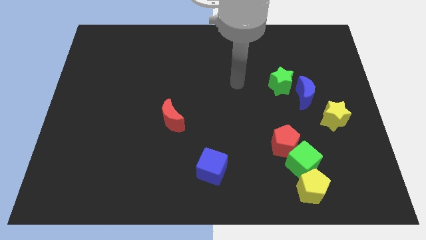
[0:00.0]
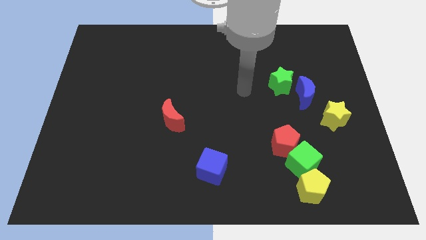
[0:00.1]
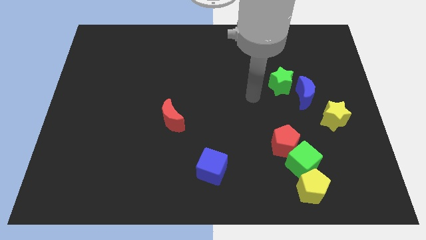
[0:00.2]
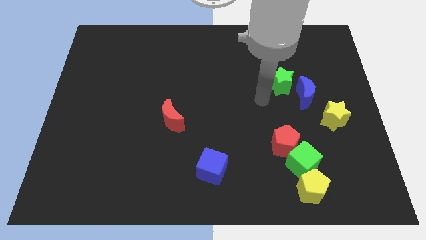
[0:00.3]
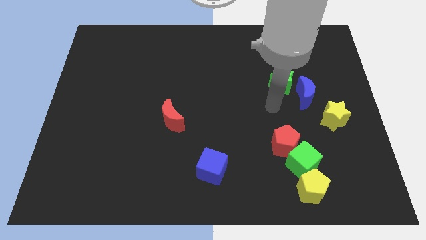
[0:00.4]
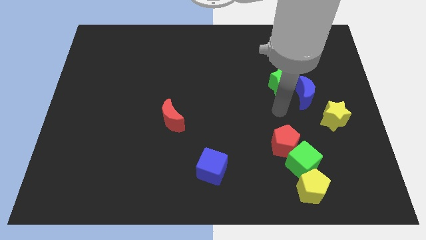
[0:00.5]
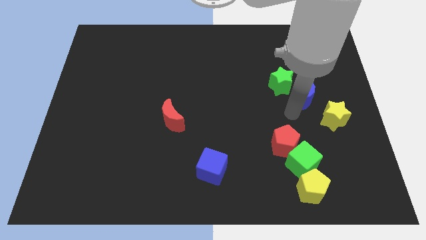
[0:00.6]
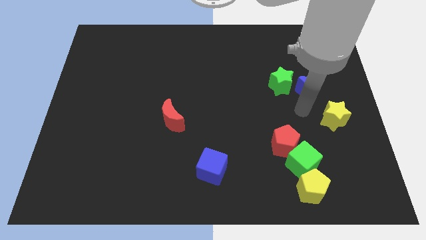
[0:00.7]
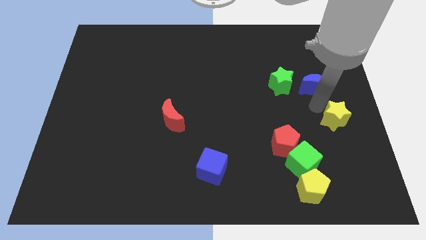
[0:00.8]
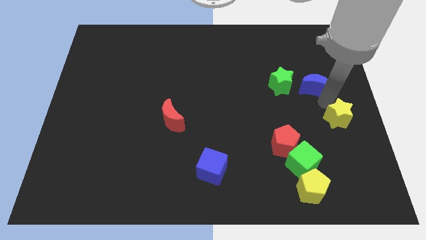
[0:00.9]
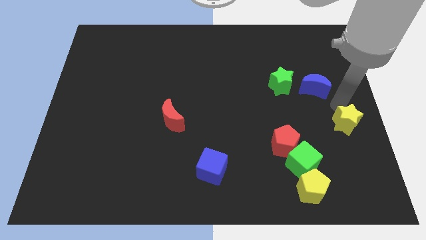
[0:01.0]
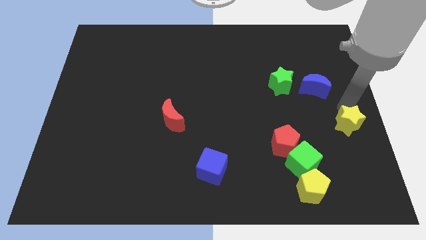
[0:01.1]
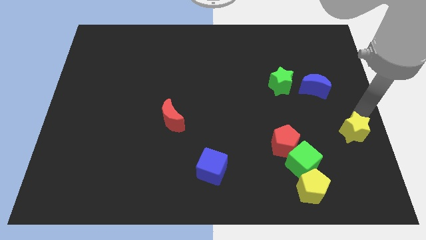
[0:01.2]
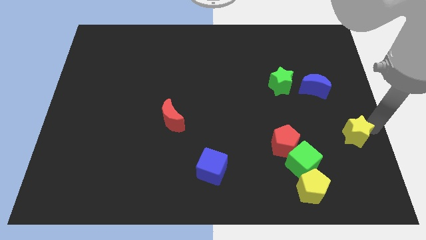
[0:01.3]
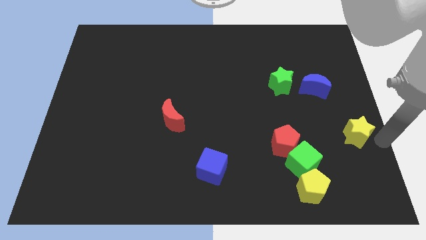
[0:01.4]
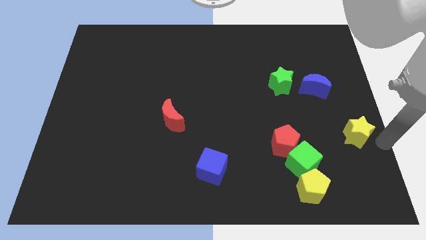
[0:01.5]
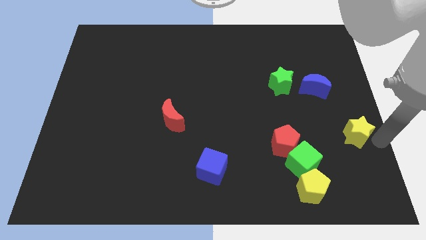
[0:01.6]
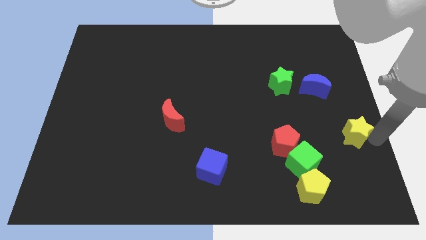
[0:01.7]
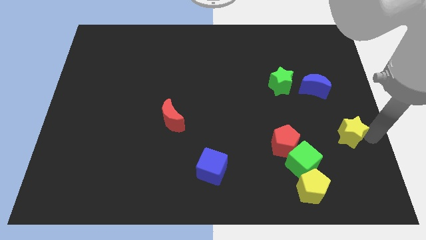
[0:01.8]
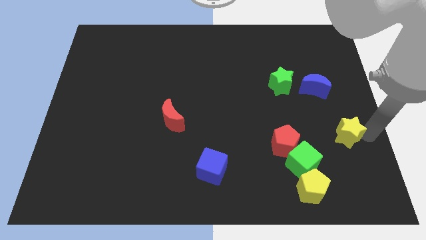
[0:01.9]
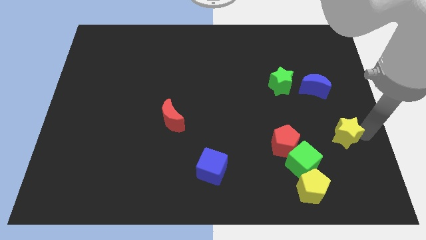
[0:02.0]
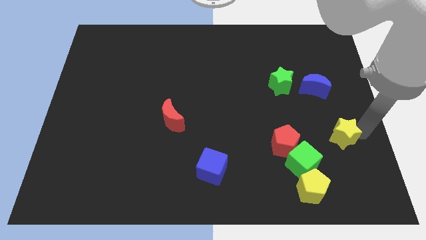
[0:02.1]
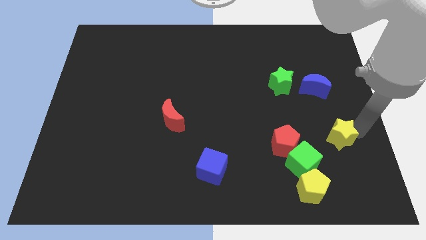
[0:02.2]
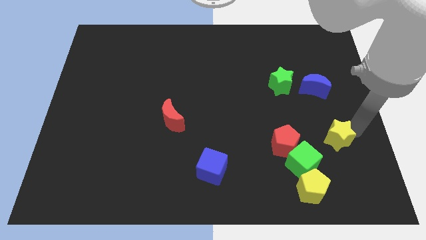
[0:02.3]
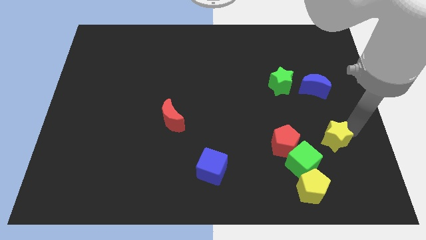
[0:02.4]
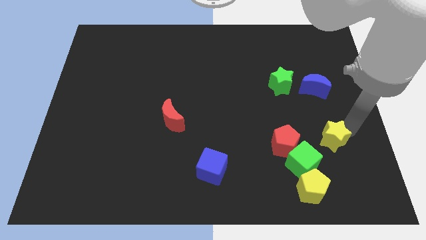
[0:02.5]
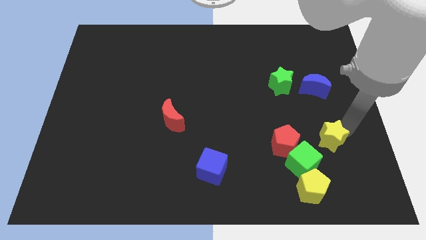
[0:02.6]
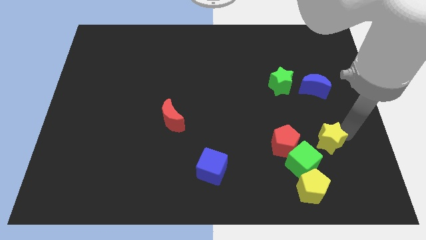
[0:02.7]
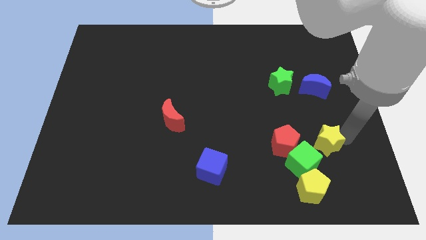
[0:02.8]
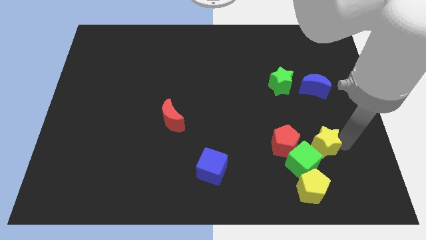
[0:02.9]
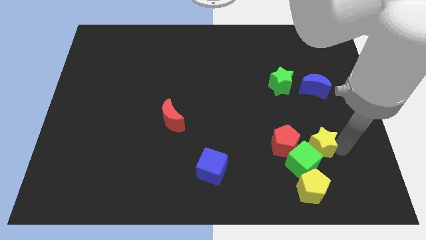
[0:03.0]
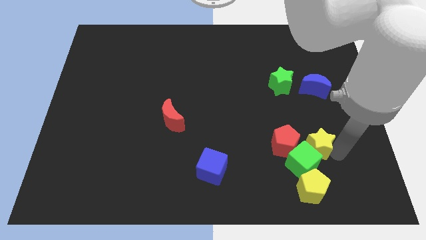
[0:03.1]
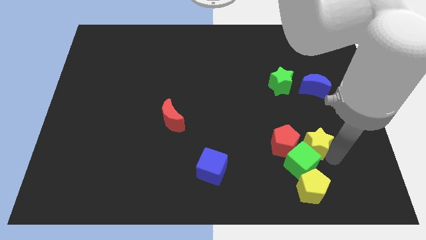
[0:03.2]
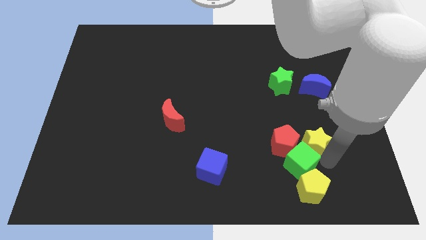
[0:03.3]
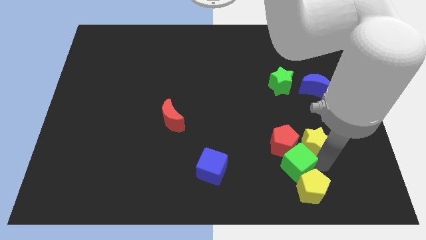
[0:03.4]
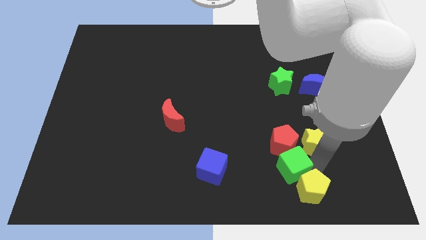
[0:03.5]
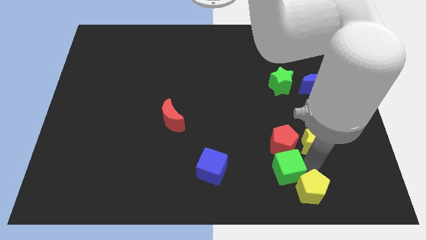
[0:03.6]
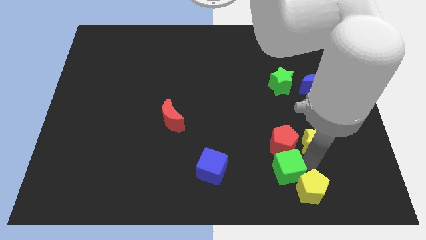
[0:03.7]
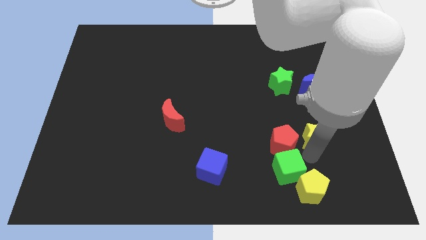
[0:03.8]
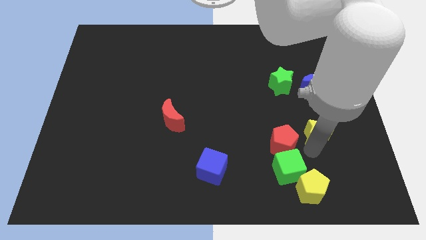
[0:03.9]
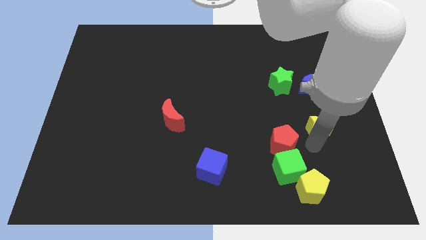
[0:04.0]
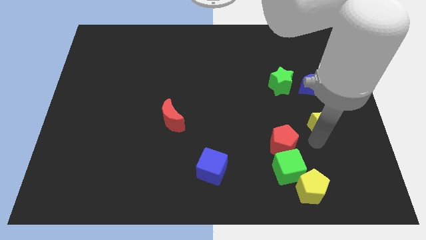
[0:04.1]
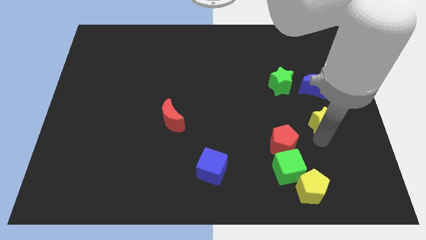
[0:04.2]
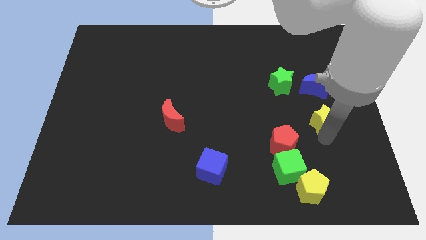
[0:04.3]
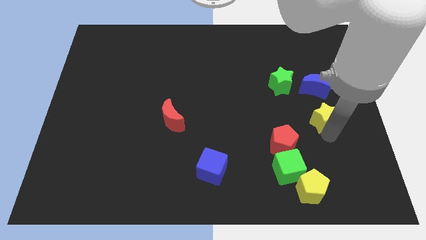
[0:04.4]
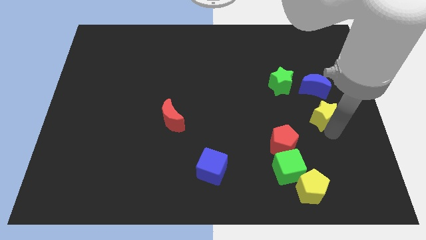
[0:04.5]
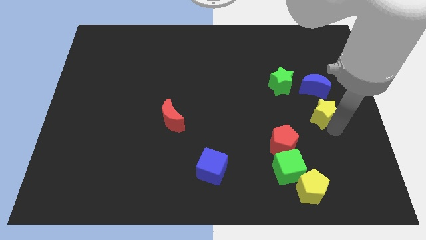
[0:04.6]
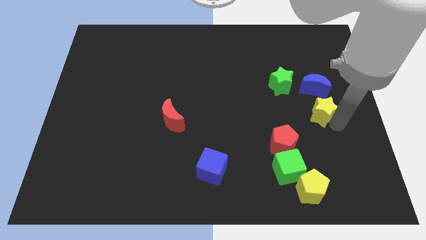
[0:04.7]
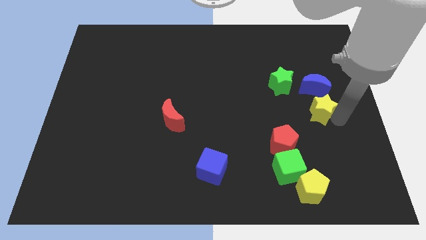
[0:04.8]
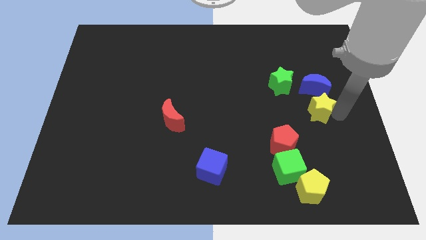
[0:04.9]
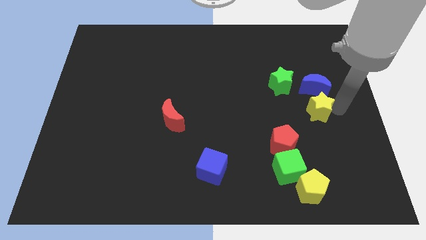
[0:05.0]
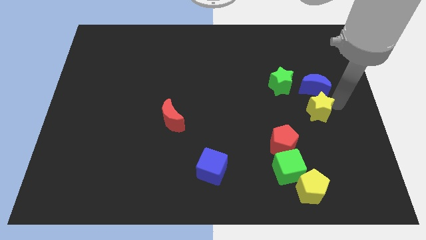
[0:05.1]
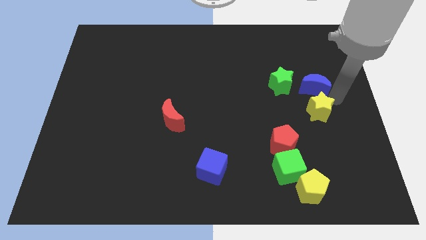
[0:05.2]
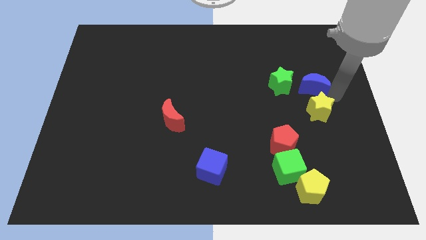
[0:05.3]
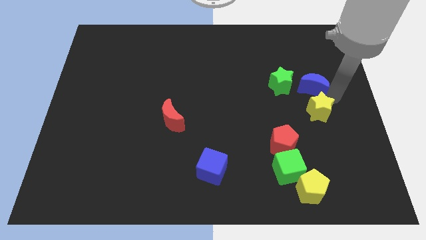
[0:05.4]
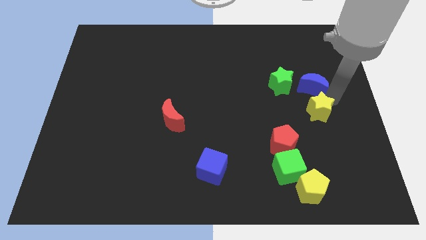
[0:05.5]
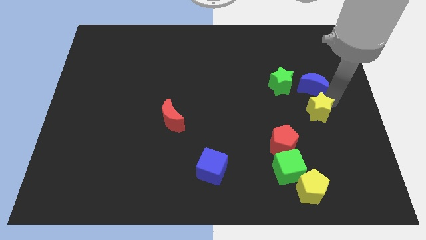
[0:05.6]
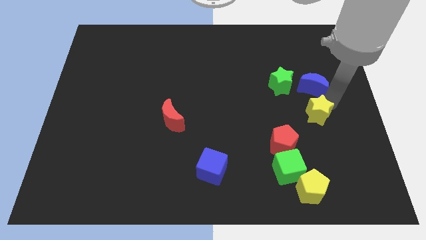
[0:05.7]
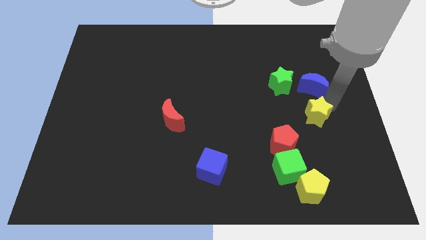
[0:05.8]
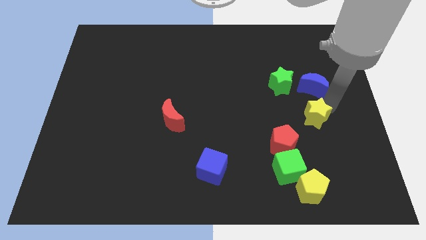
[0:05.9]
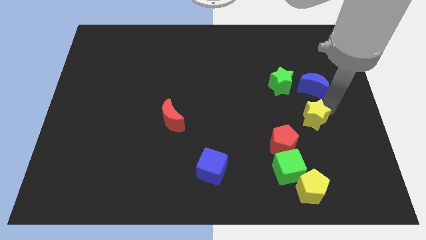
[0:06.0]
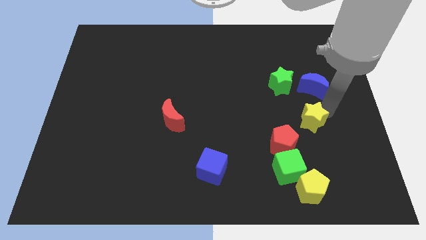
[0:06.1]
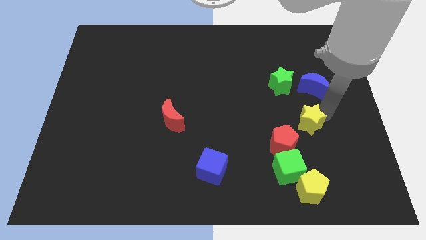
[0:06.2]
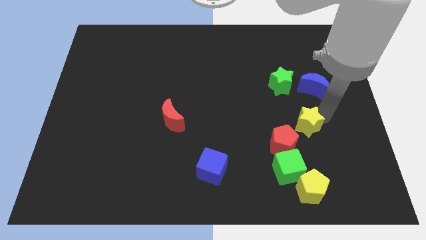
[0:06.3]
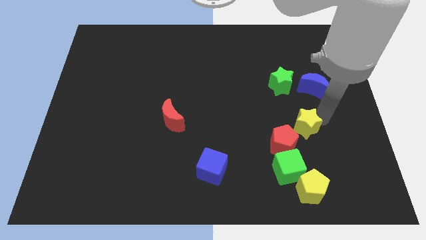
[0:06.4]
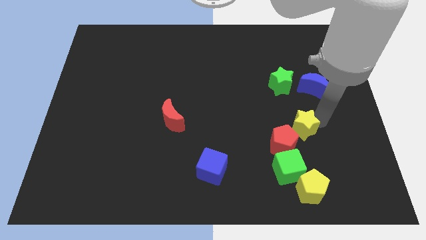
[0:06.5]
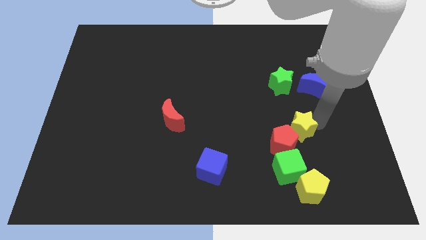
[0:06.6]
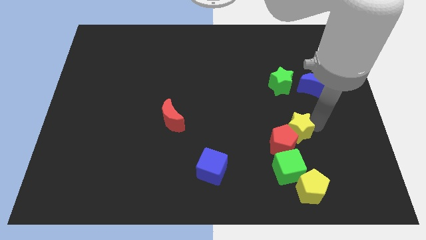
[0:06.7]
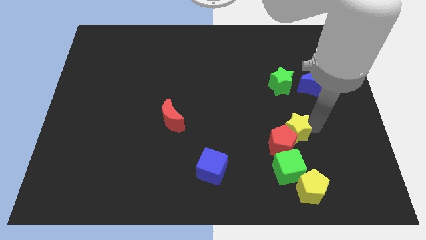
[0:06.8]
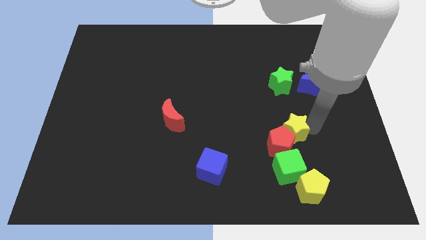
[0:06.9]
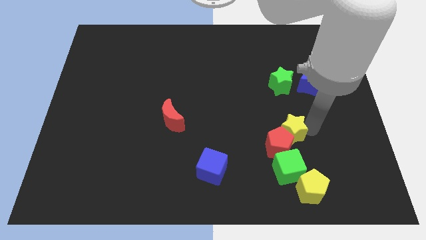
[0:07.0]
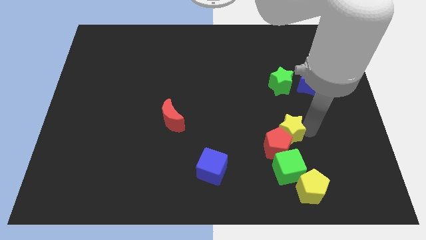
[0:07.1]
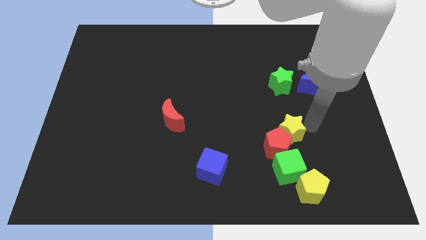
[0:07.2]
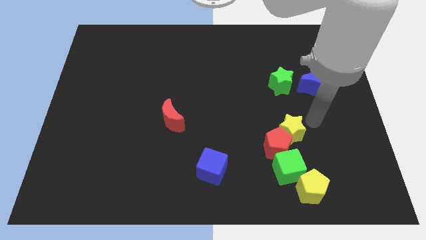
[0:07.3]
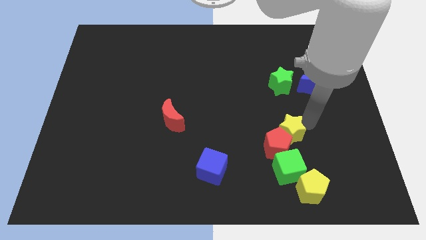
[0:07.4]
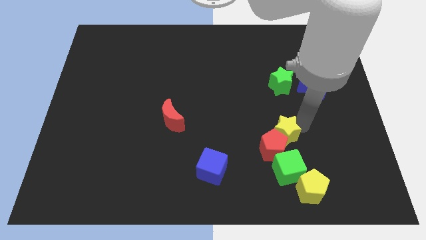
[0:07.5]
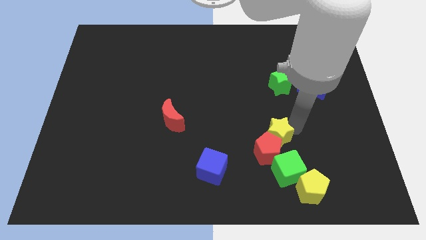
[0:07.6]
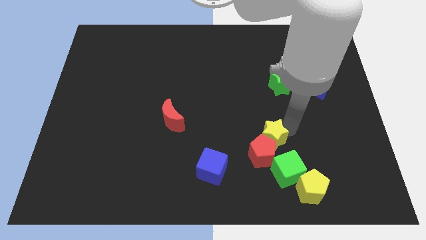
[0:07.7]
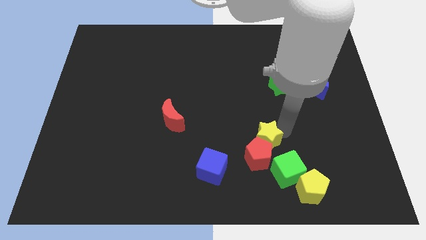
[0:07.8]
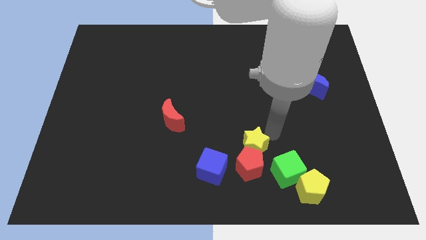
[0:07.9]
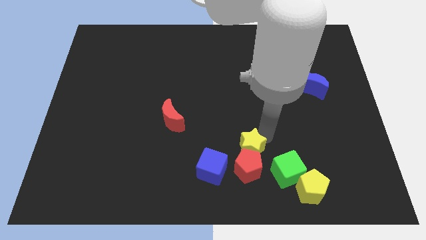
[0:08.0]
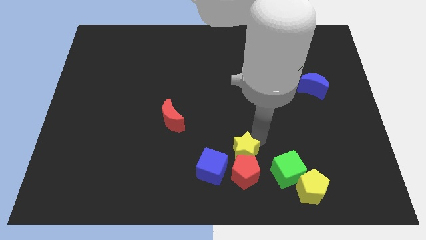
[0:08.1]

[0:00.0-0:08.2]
push the yellow star to the left side of the green cube
